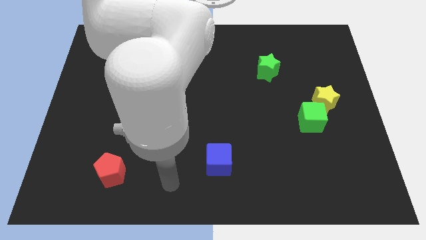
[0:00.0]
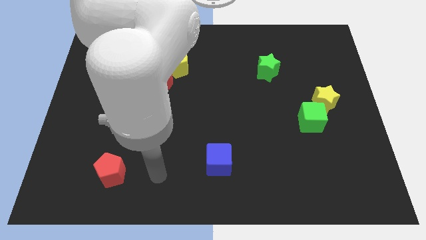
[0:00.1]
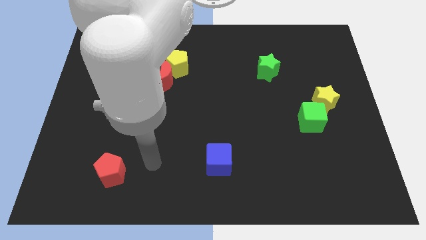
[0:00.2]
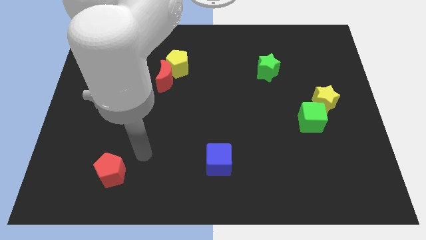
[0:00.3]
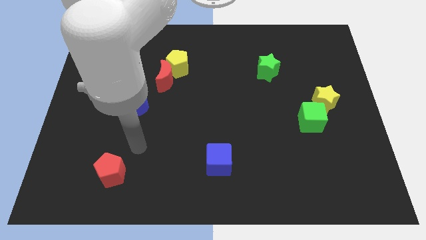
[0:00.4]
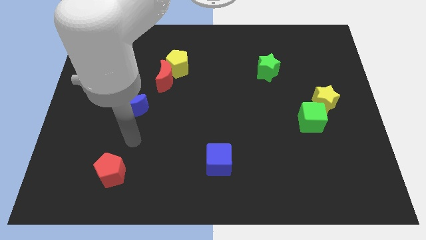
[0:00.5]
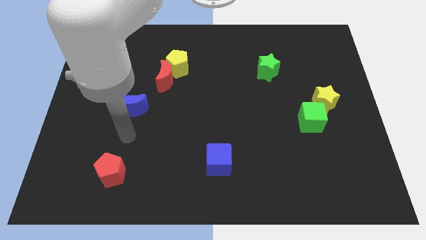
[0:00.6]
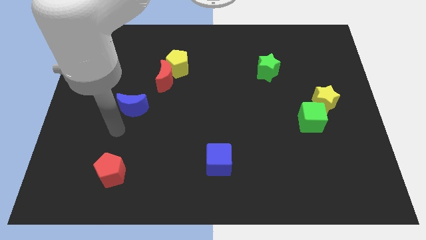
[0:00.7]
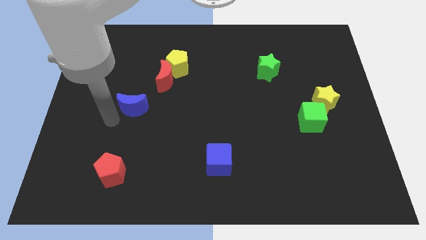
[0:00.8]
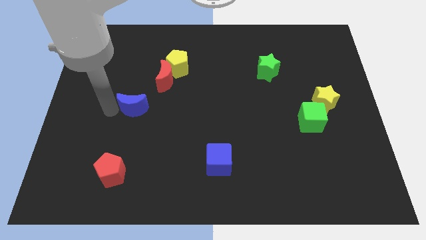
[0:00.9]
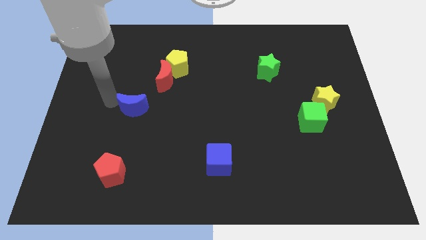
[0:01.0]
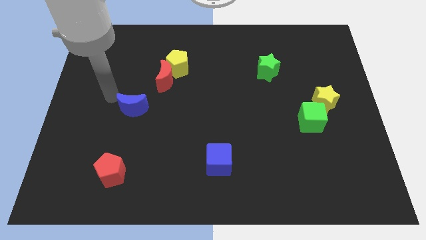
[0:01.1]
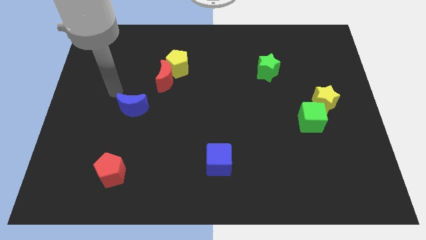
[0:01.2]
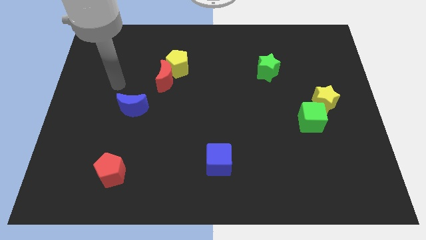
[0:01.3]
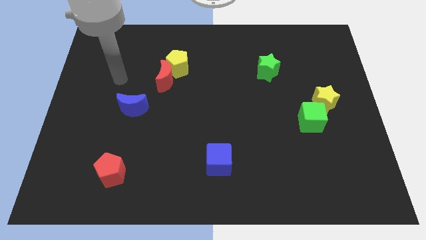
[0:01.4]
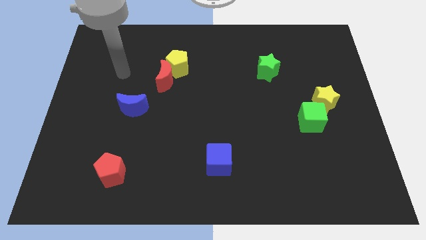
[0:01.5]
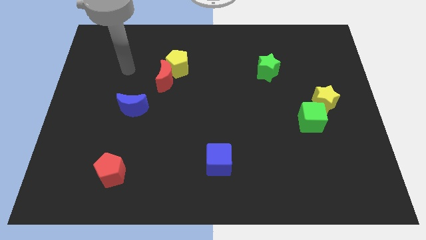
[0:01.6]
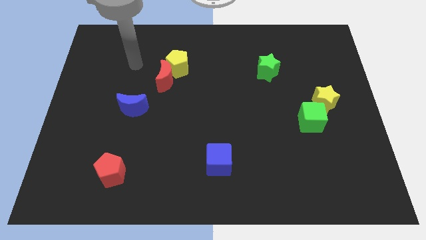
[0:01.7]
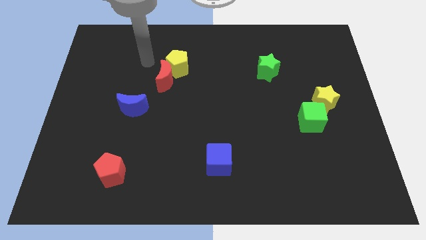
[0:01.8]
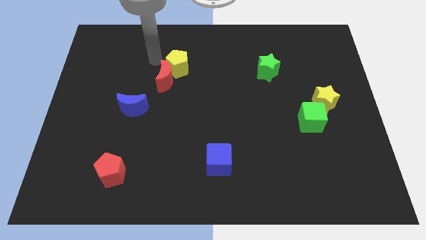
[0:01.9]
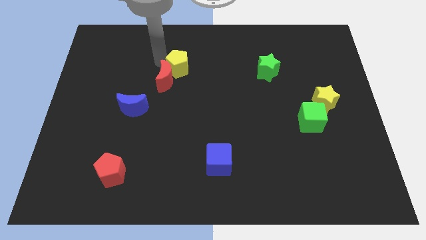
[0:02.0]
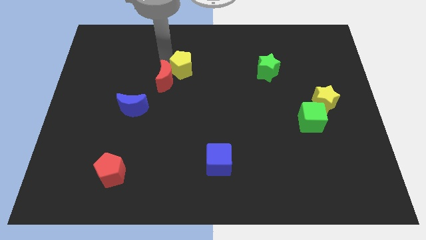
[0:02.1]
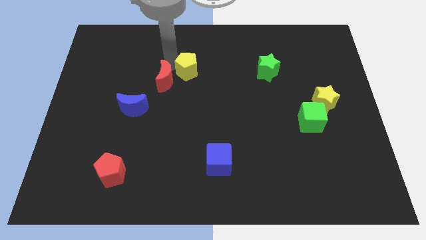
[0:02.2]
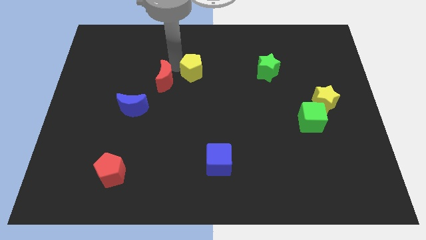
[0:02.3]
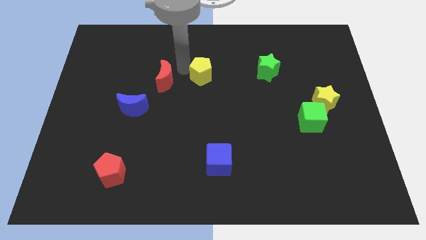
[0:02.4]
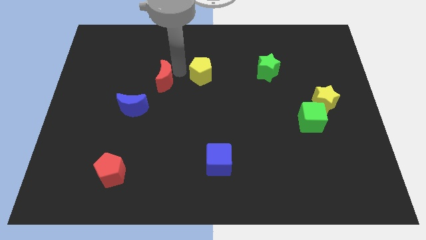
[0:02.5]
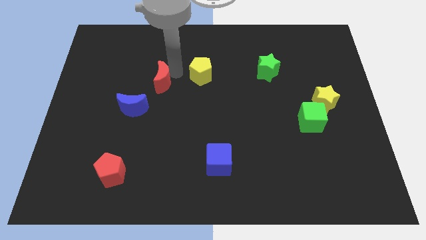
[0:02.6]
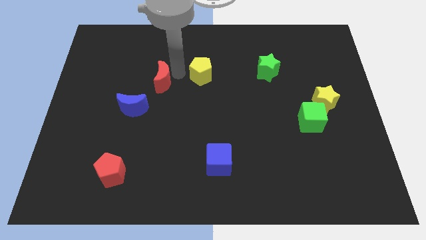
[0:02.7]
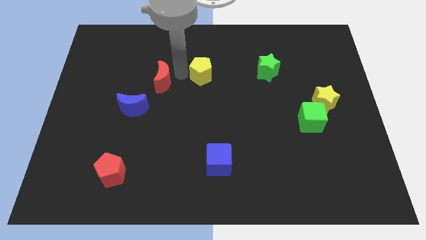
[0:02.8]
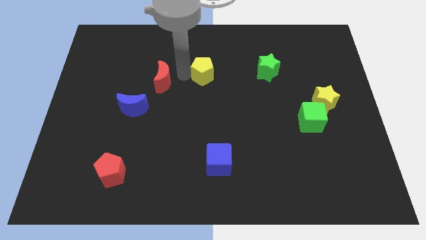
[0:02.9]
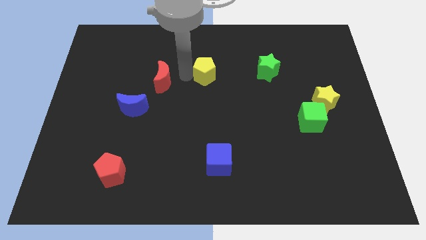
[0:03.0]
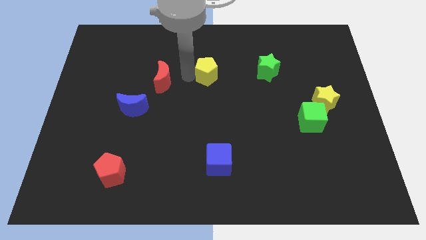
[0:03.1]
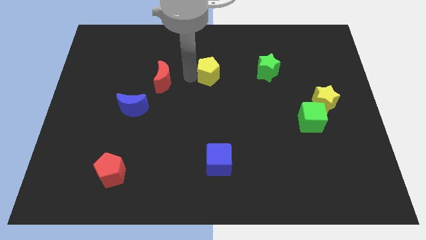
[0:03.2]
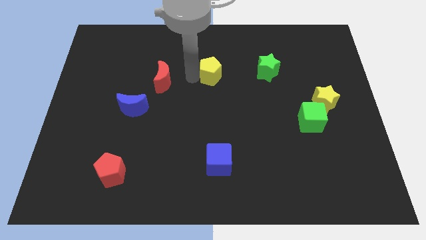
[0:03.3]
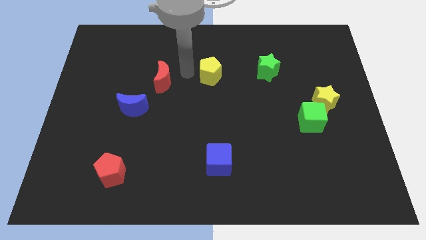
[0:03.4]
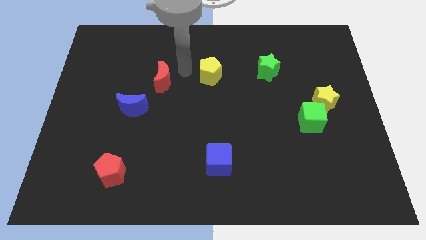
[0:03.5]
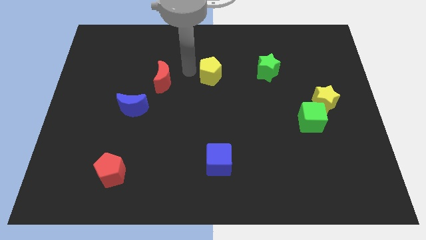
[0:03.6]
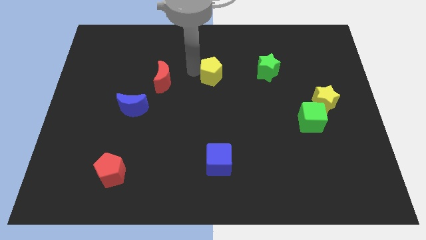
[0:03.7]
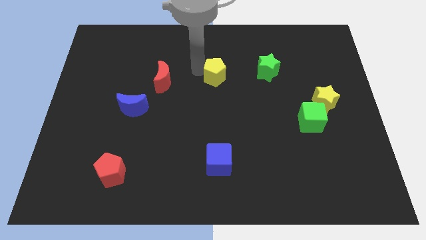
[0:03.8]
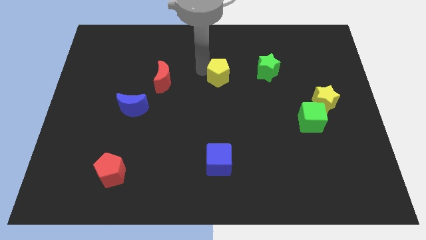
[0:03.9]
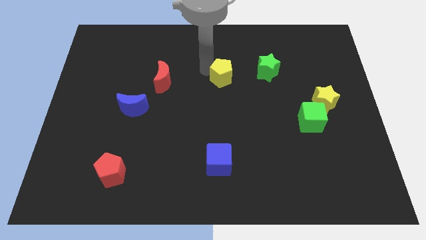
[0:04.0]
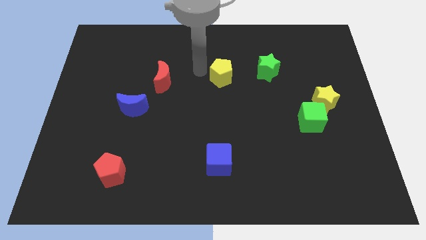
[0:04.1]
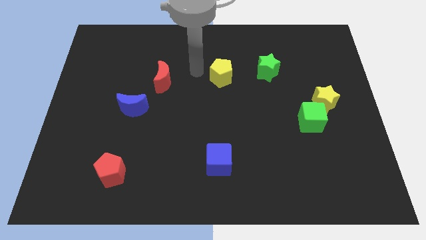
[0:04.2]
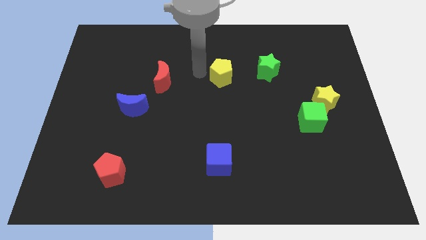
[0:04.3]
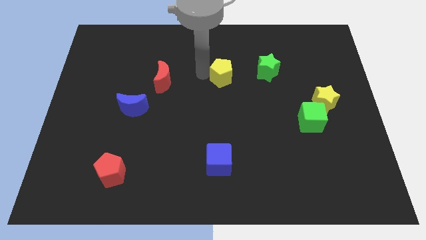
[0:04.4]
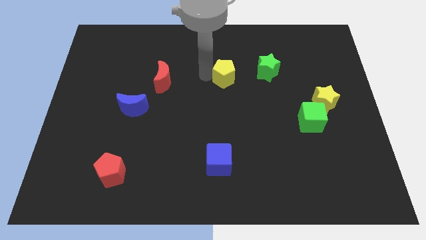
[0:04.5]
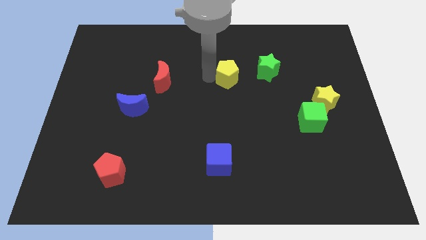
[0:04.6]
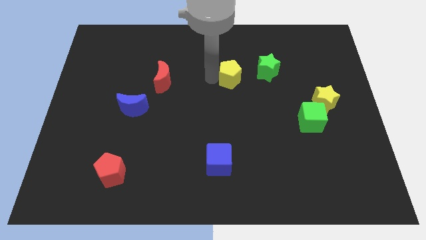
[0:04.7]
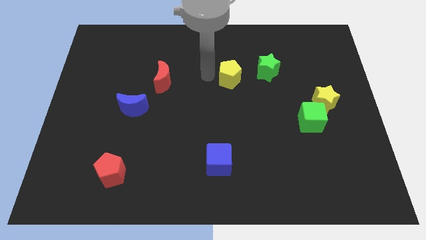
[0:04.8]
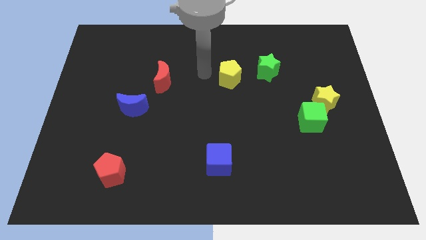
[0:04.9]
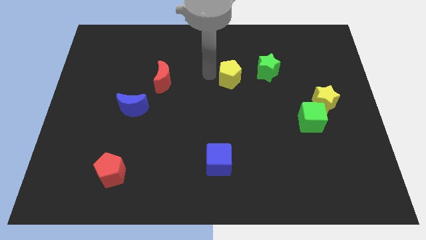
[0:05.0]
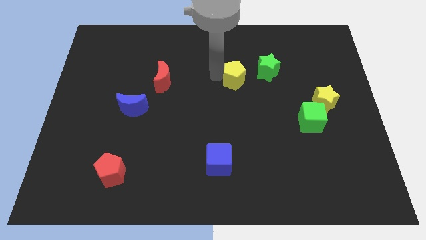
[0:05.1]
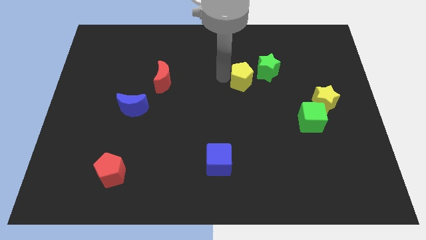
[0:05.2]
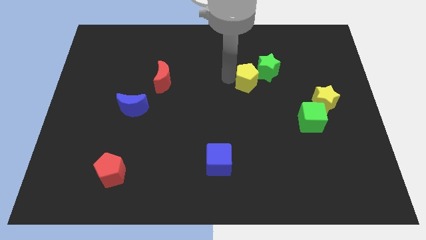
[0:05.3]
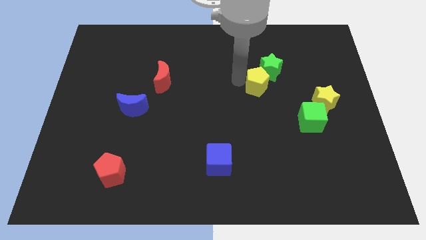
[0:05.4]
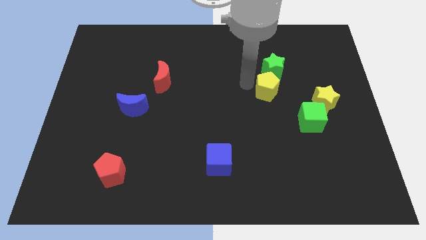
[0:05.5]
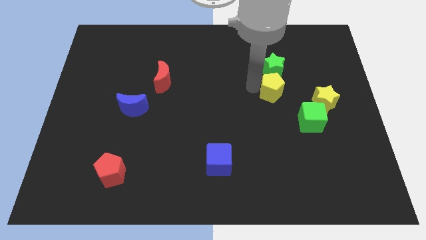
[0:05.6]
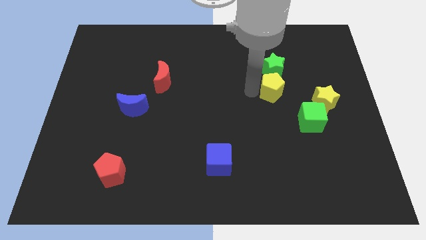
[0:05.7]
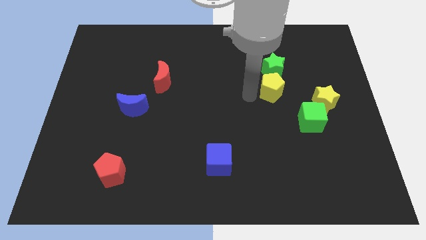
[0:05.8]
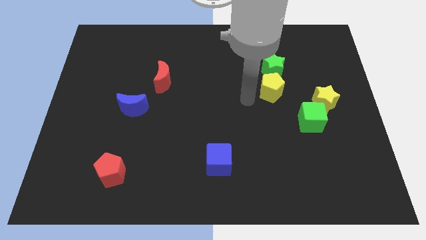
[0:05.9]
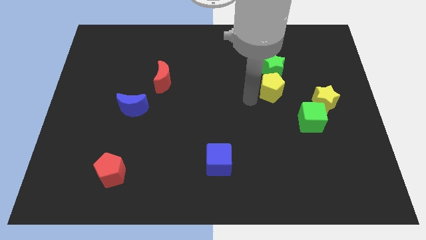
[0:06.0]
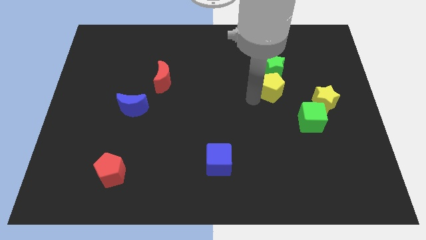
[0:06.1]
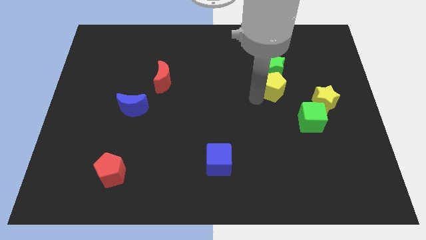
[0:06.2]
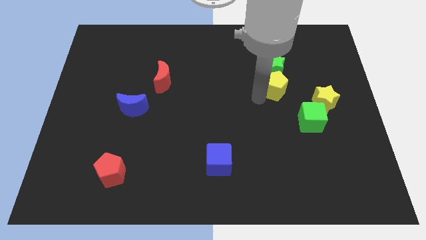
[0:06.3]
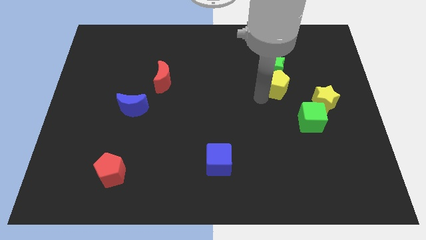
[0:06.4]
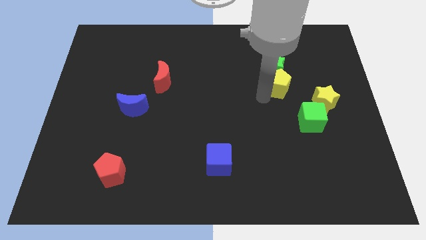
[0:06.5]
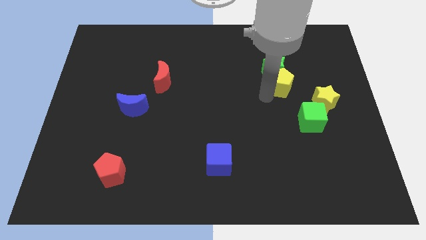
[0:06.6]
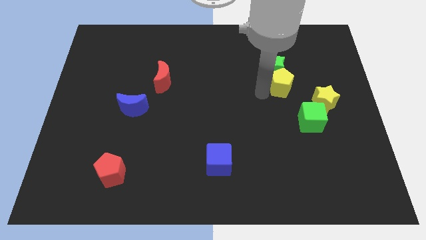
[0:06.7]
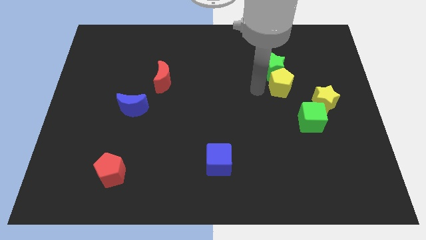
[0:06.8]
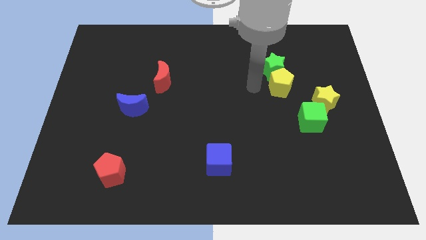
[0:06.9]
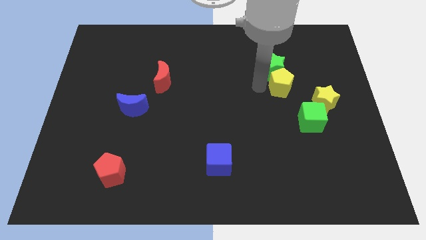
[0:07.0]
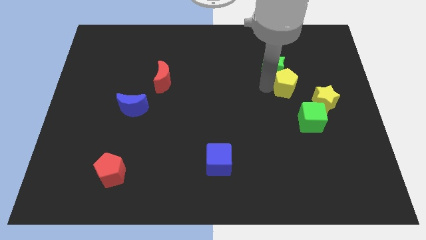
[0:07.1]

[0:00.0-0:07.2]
move the yellow pentagon to the top of the green cube
